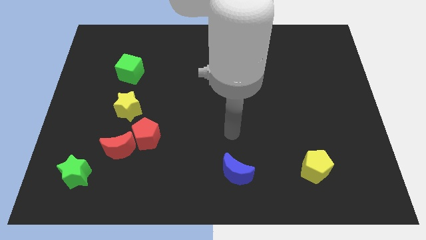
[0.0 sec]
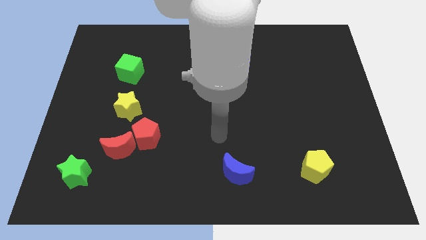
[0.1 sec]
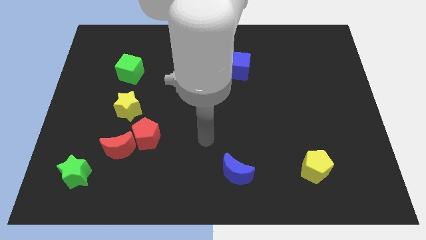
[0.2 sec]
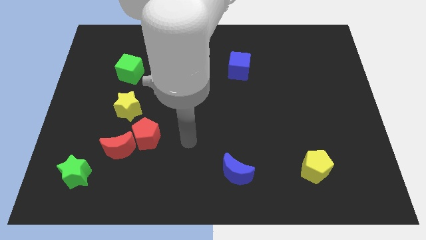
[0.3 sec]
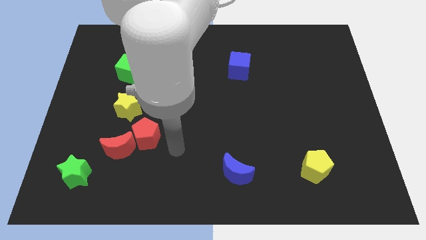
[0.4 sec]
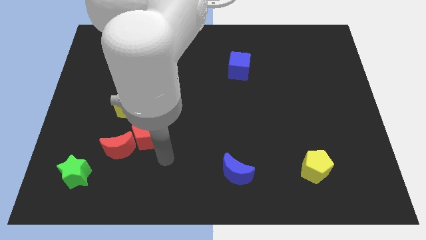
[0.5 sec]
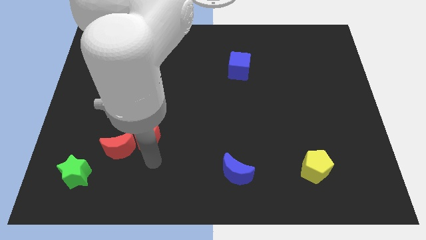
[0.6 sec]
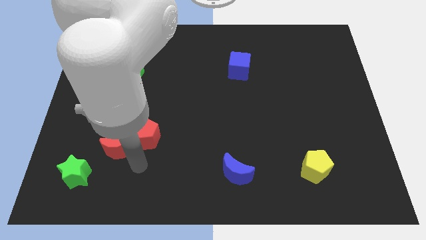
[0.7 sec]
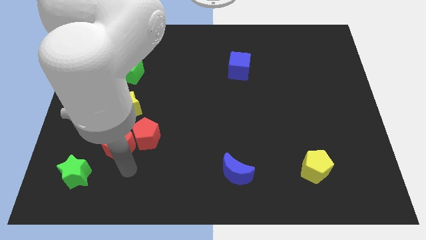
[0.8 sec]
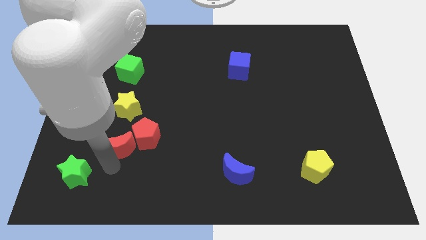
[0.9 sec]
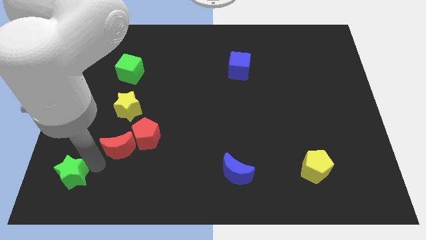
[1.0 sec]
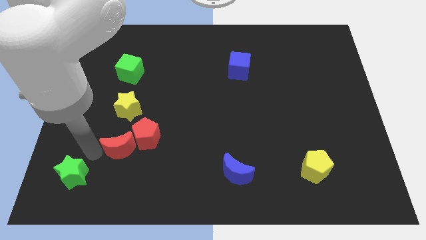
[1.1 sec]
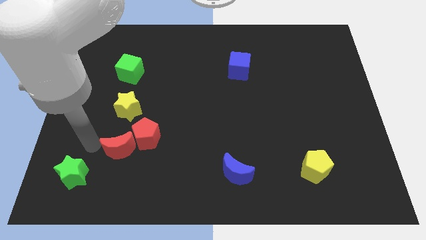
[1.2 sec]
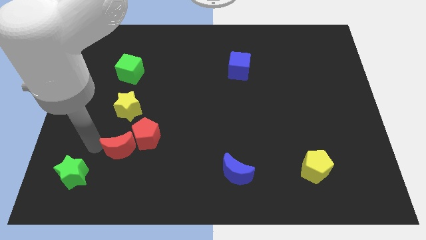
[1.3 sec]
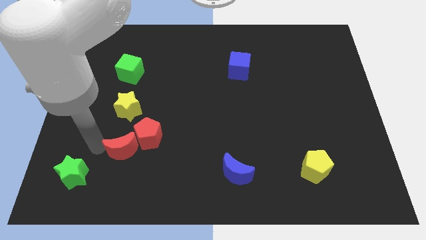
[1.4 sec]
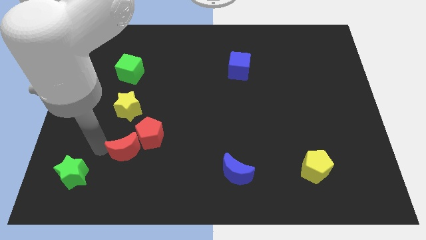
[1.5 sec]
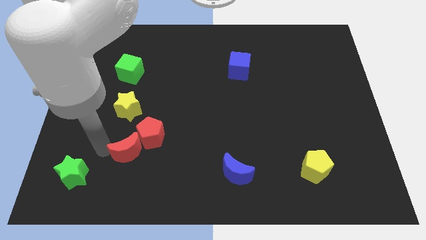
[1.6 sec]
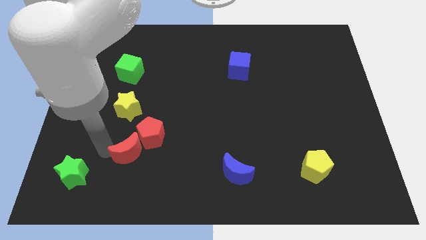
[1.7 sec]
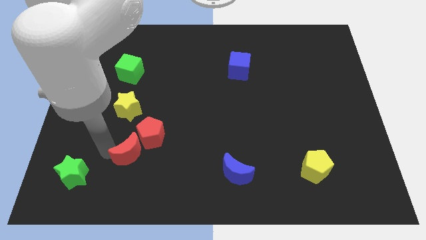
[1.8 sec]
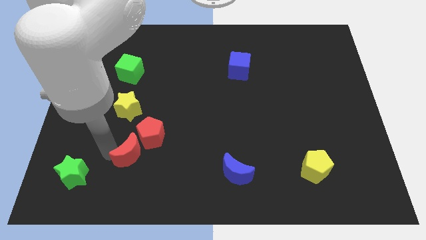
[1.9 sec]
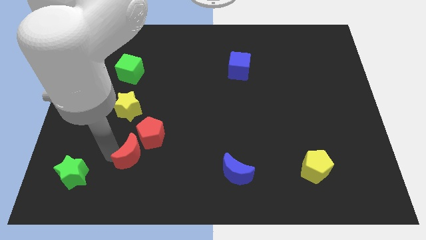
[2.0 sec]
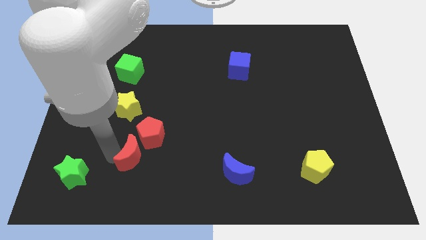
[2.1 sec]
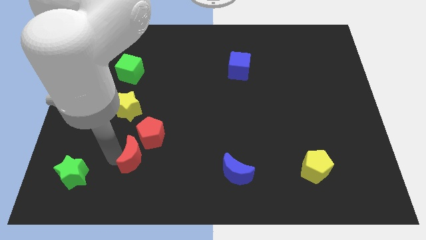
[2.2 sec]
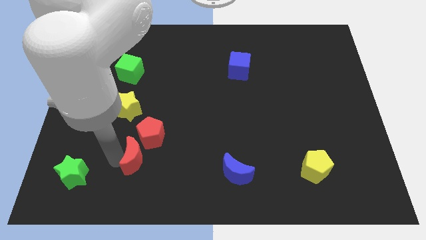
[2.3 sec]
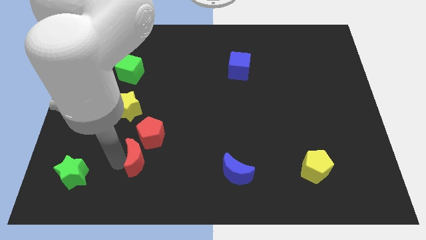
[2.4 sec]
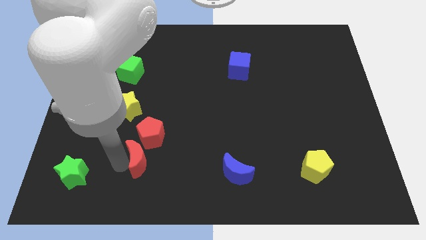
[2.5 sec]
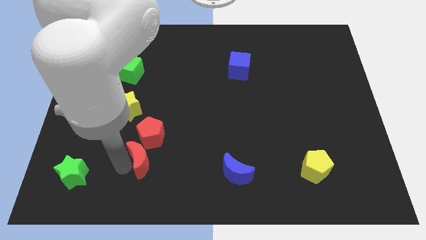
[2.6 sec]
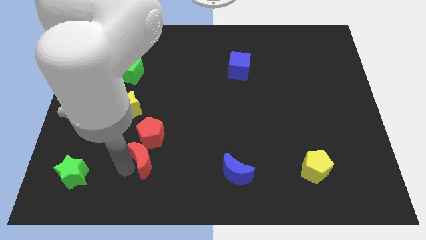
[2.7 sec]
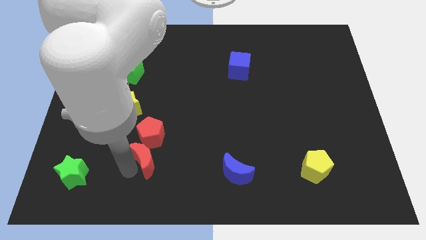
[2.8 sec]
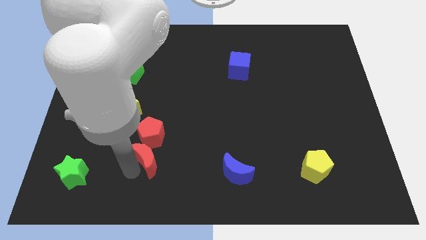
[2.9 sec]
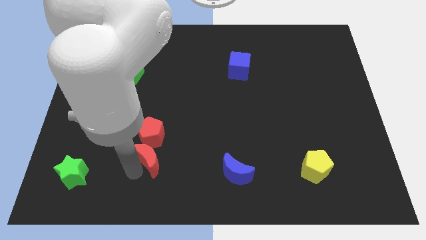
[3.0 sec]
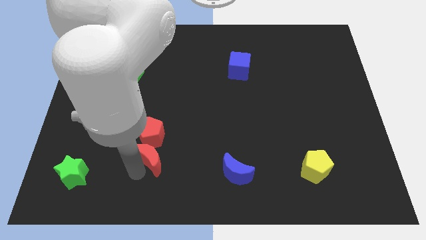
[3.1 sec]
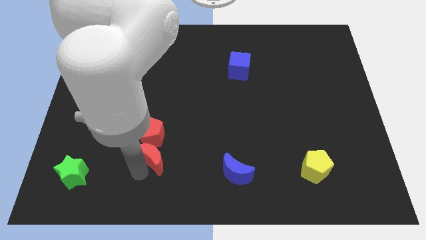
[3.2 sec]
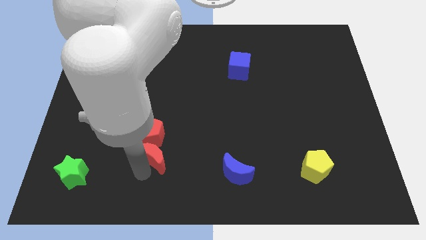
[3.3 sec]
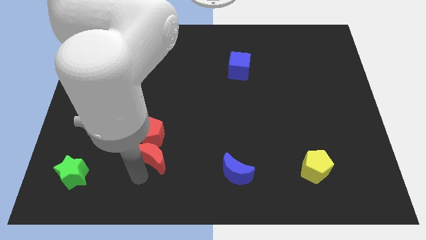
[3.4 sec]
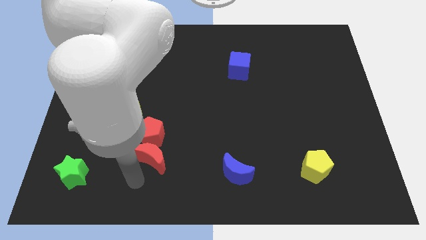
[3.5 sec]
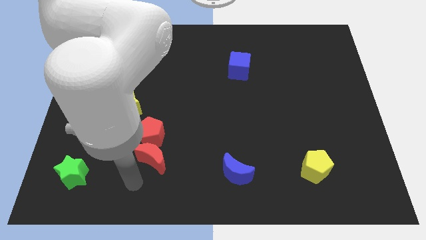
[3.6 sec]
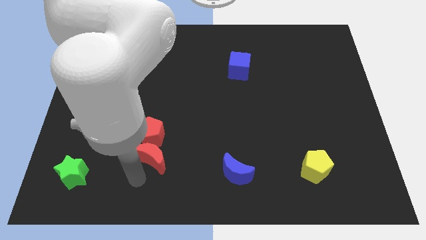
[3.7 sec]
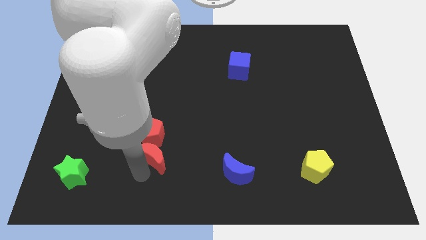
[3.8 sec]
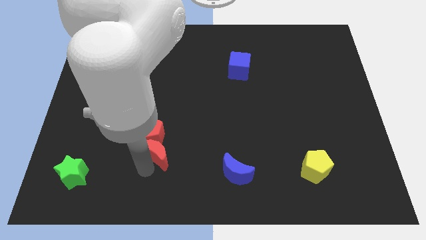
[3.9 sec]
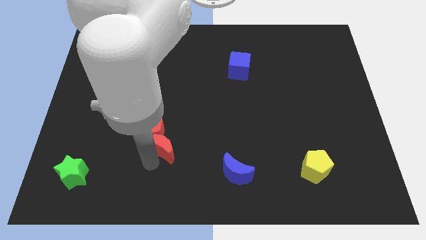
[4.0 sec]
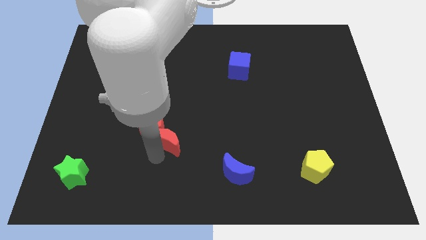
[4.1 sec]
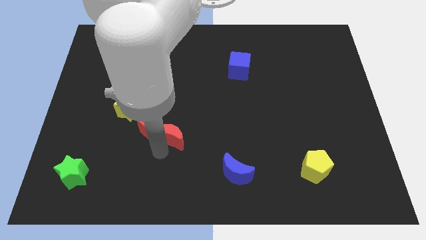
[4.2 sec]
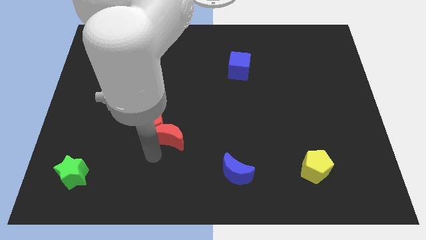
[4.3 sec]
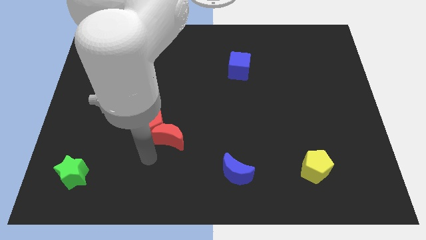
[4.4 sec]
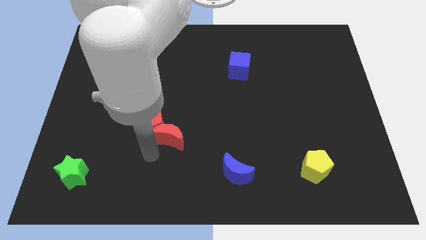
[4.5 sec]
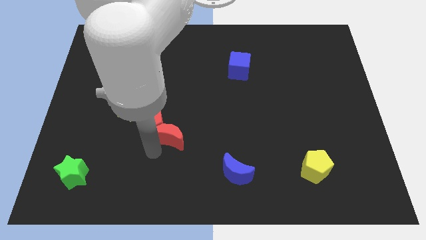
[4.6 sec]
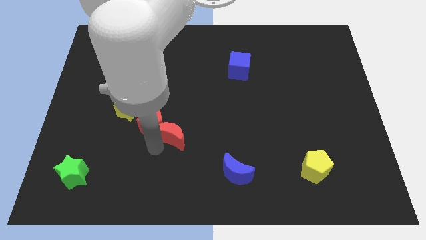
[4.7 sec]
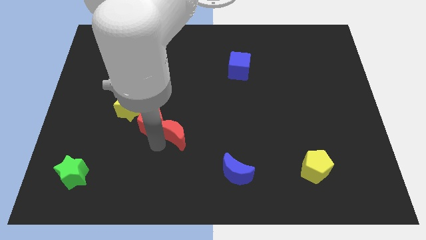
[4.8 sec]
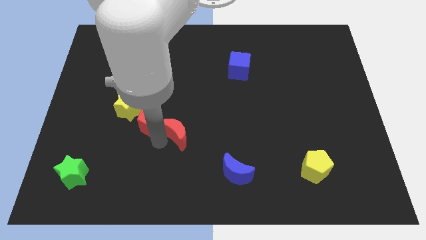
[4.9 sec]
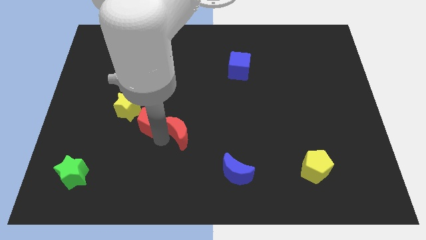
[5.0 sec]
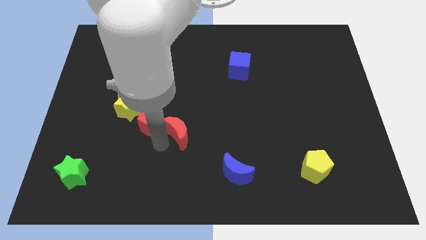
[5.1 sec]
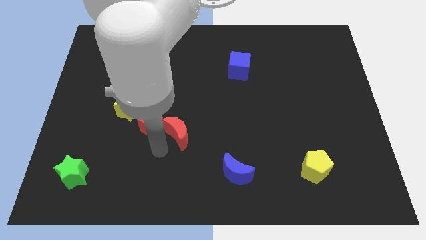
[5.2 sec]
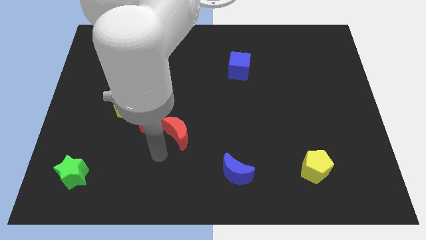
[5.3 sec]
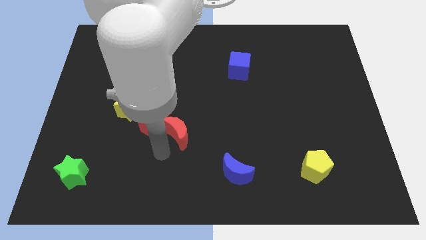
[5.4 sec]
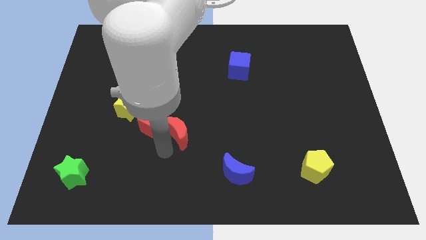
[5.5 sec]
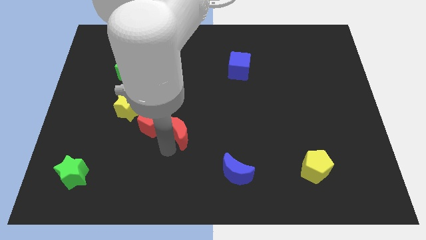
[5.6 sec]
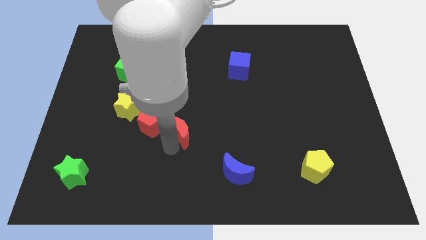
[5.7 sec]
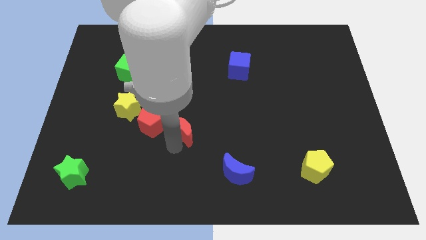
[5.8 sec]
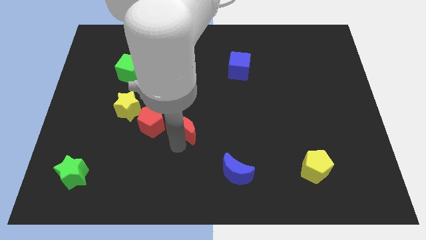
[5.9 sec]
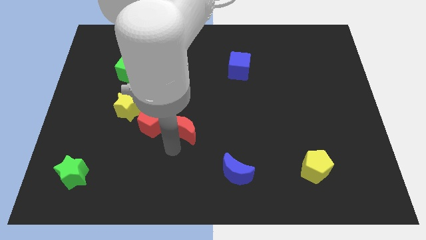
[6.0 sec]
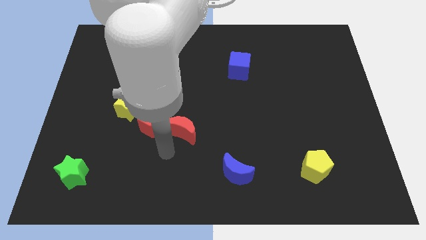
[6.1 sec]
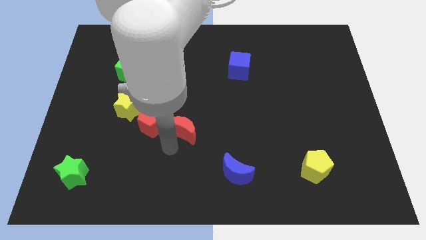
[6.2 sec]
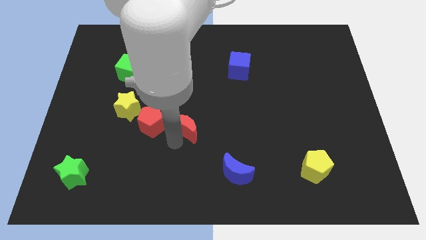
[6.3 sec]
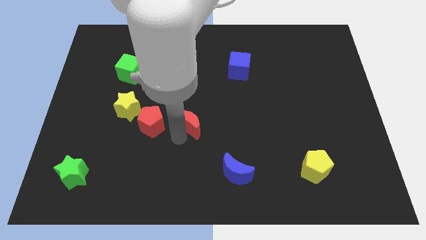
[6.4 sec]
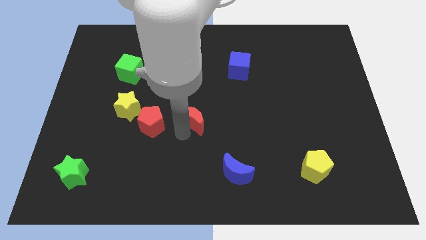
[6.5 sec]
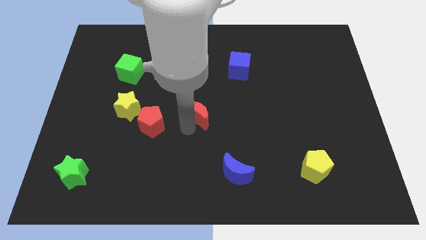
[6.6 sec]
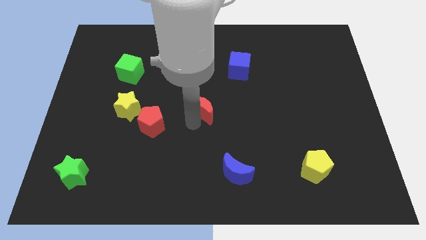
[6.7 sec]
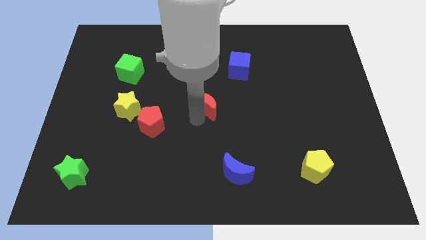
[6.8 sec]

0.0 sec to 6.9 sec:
push the red moon upwards and right

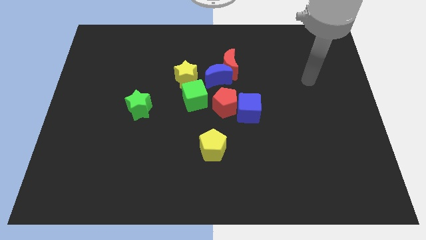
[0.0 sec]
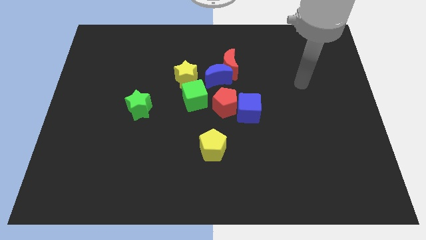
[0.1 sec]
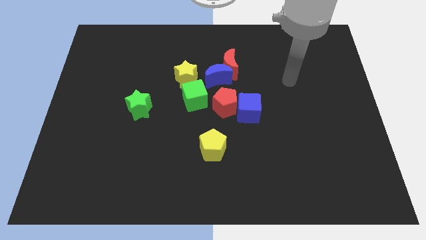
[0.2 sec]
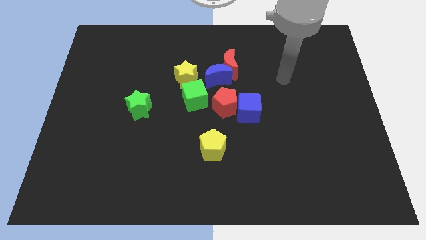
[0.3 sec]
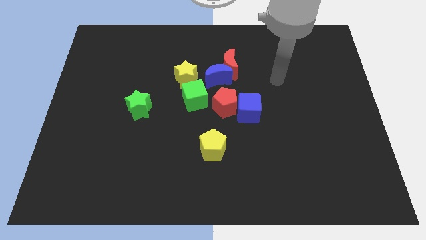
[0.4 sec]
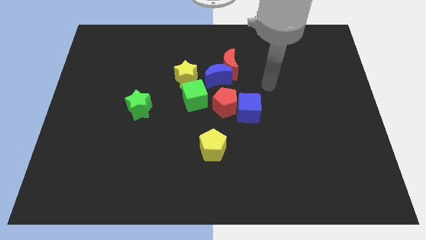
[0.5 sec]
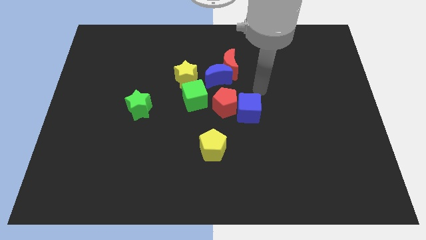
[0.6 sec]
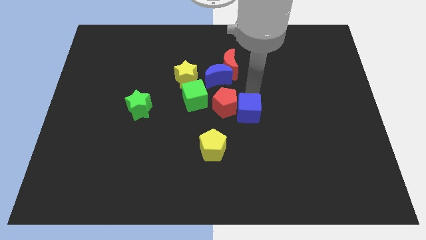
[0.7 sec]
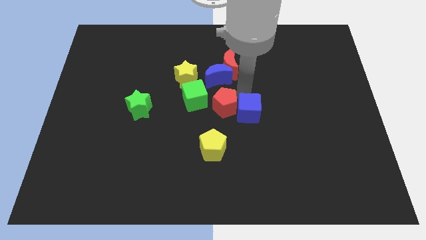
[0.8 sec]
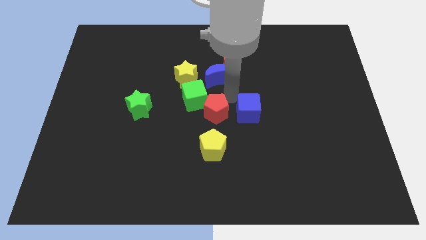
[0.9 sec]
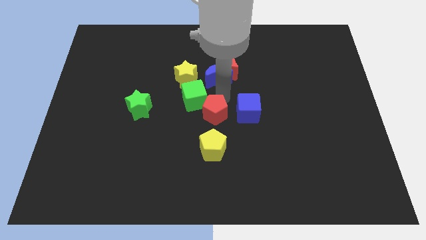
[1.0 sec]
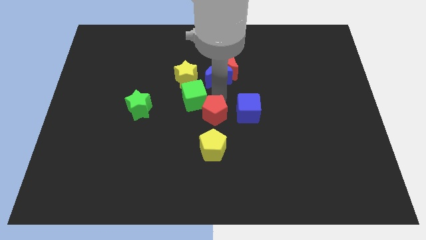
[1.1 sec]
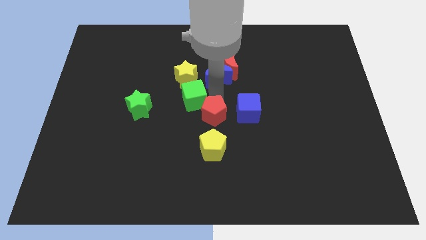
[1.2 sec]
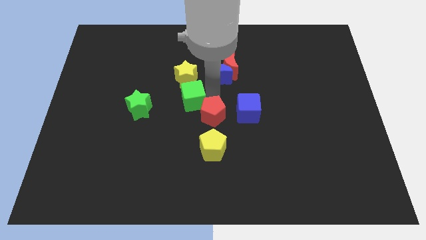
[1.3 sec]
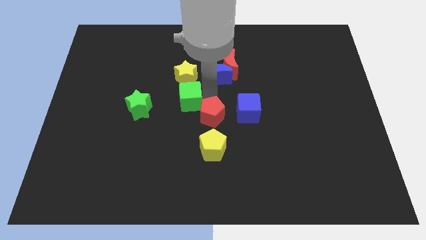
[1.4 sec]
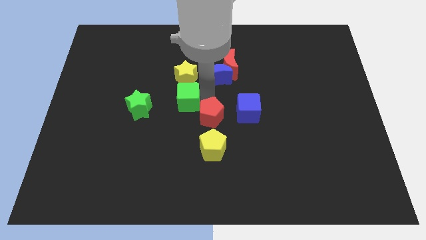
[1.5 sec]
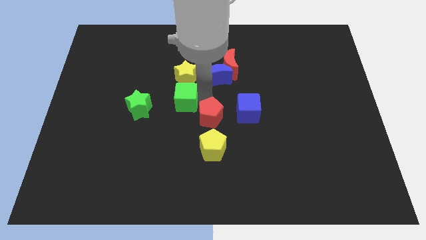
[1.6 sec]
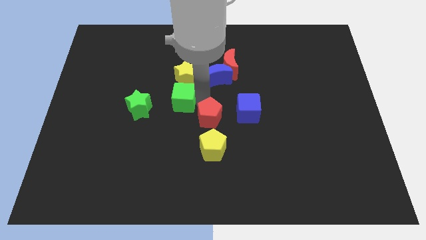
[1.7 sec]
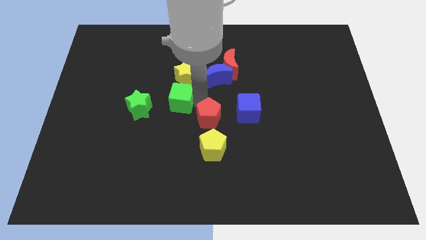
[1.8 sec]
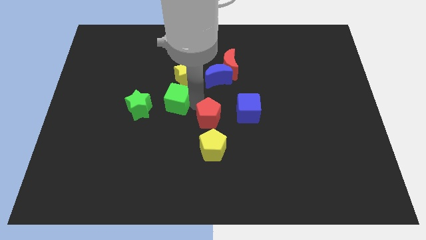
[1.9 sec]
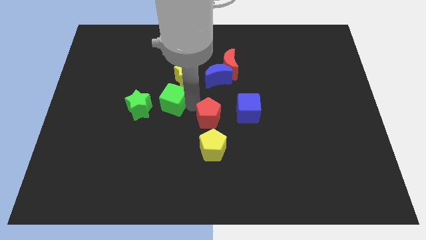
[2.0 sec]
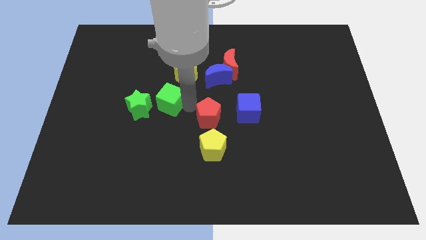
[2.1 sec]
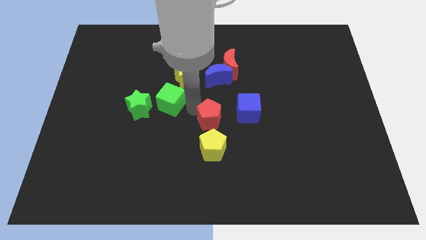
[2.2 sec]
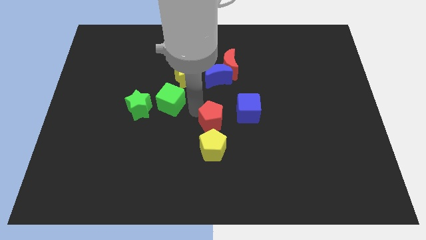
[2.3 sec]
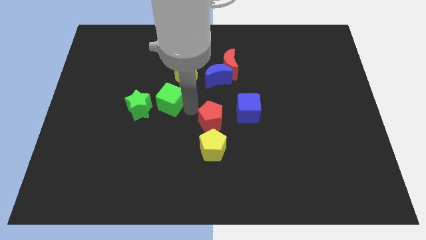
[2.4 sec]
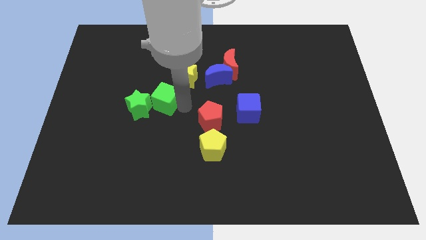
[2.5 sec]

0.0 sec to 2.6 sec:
slightly slide the green cube to the left
